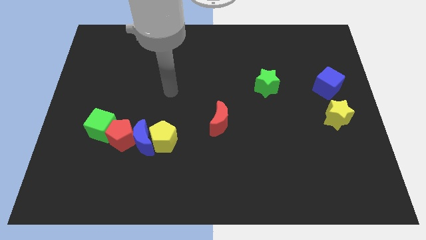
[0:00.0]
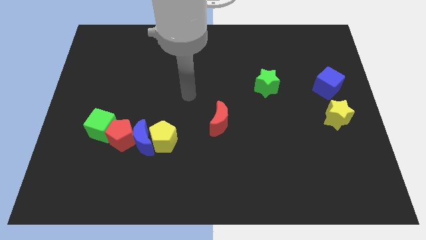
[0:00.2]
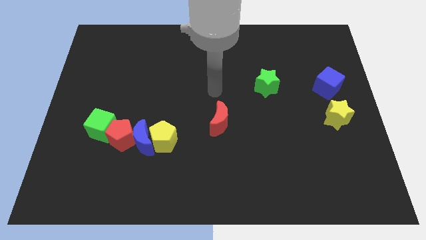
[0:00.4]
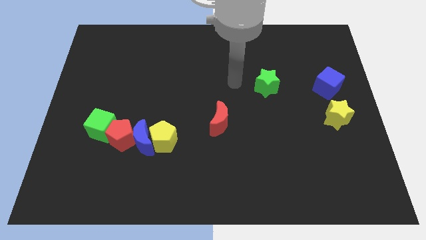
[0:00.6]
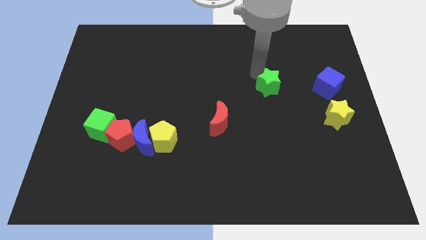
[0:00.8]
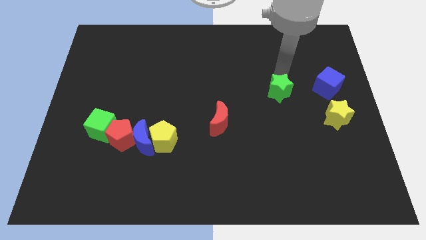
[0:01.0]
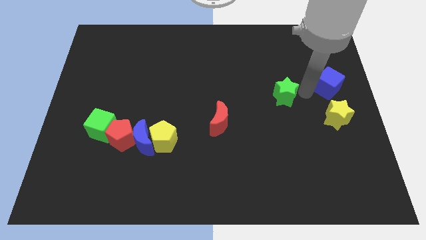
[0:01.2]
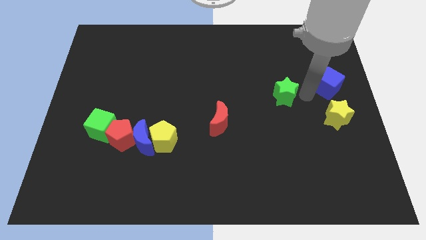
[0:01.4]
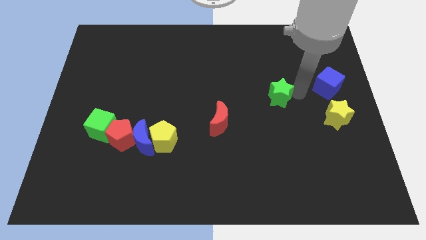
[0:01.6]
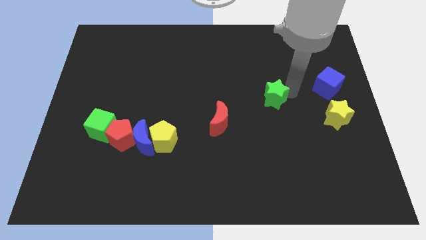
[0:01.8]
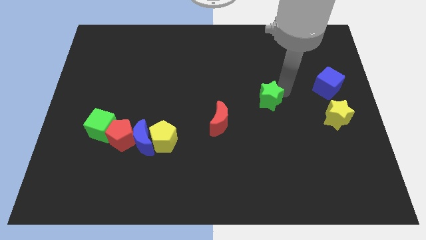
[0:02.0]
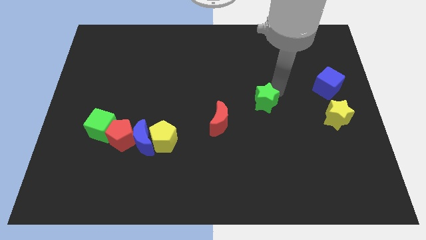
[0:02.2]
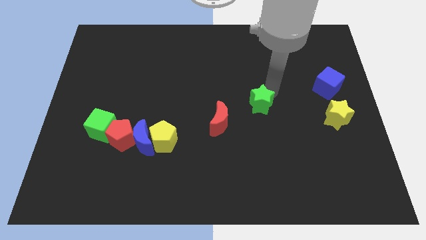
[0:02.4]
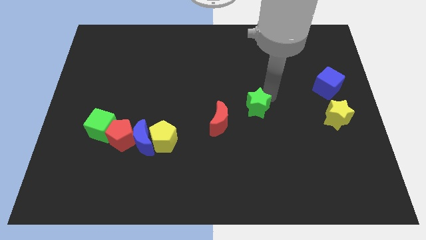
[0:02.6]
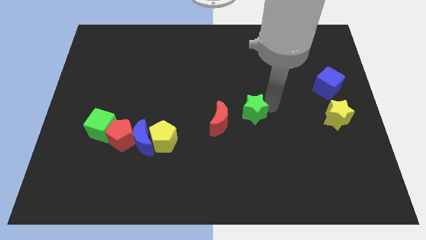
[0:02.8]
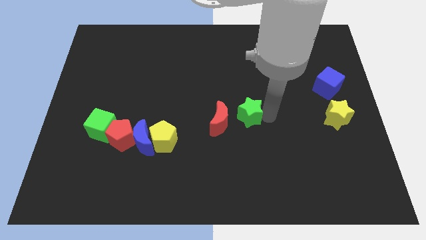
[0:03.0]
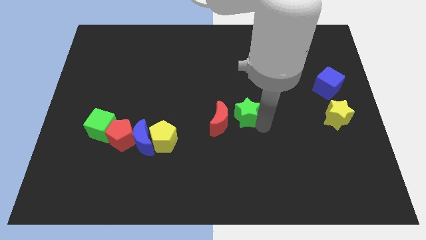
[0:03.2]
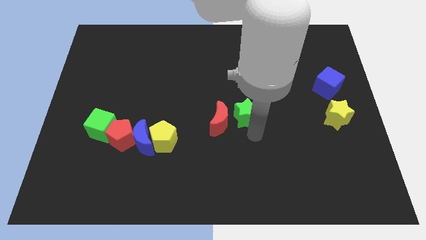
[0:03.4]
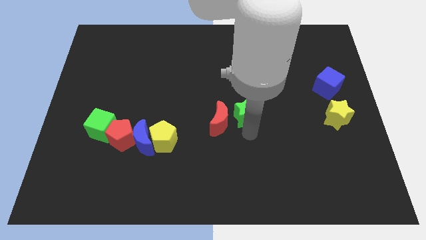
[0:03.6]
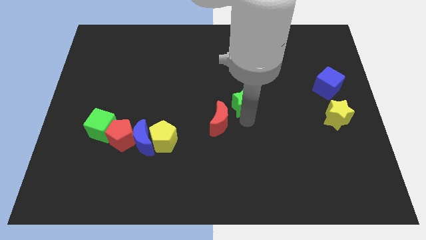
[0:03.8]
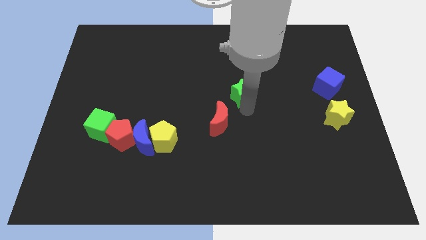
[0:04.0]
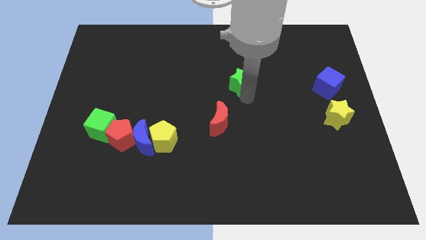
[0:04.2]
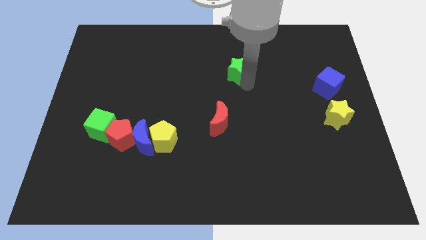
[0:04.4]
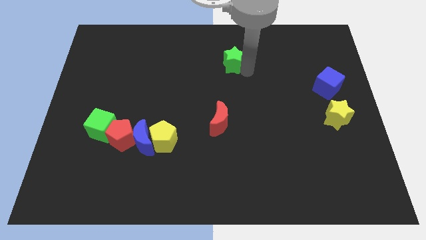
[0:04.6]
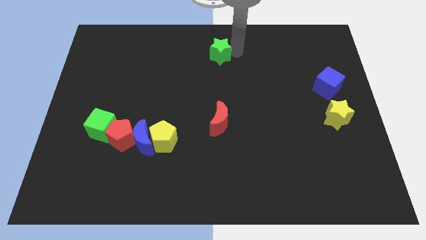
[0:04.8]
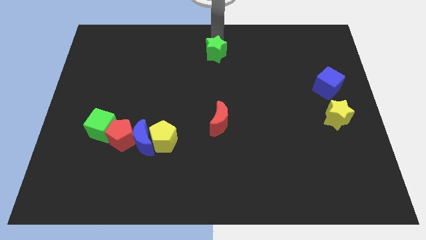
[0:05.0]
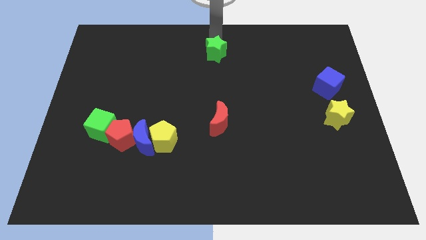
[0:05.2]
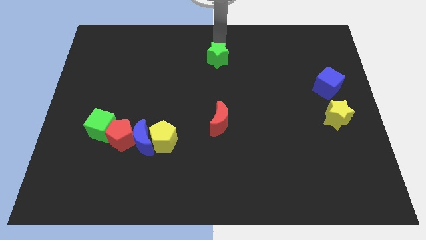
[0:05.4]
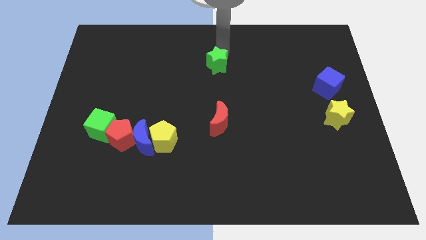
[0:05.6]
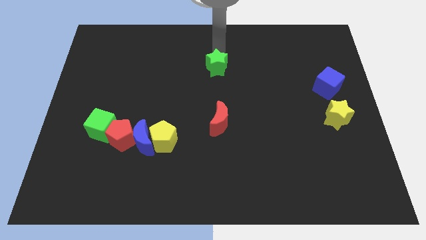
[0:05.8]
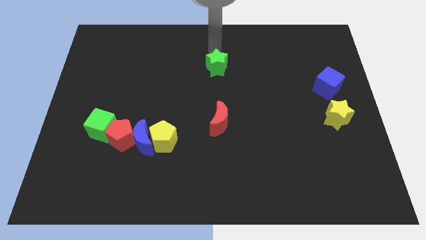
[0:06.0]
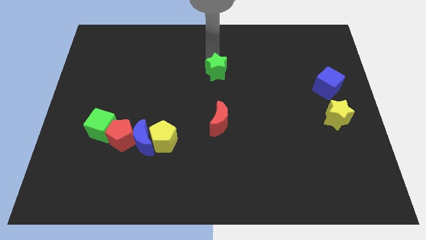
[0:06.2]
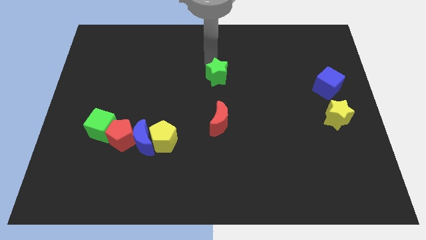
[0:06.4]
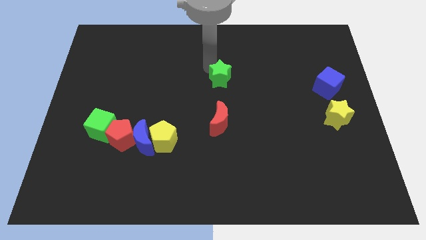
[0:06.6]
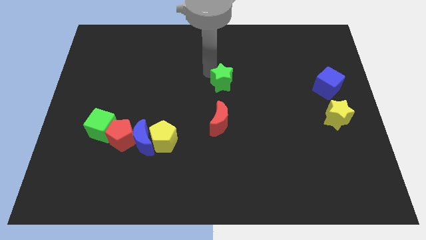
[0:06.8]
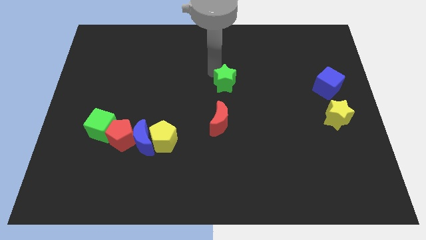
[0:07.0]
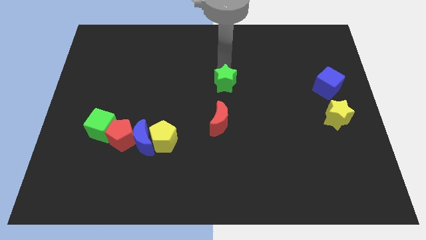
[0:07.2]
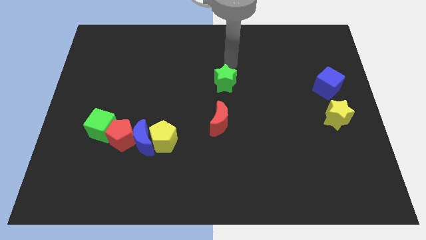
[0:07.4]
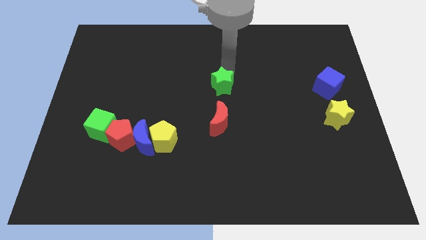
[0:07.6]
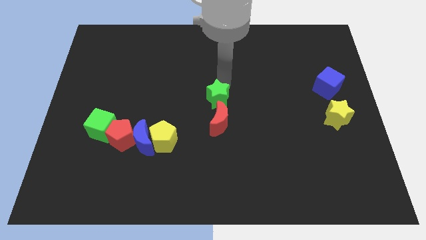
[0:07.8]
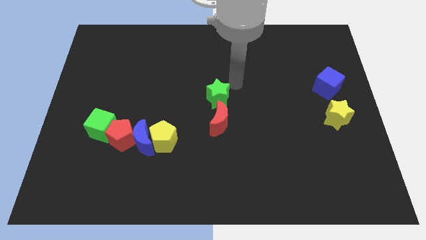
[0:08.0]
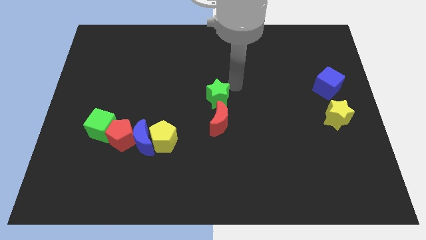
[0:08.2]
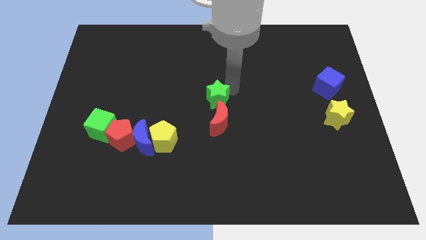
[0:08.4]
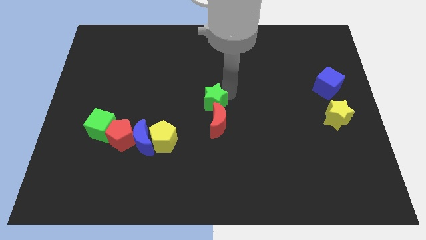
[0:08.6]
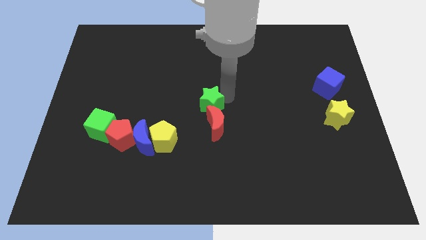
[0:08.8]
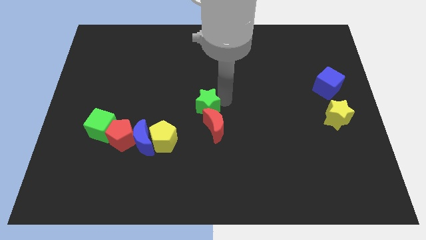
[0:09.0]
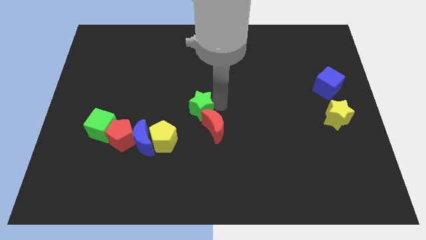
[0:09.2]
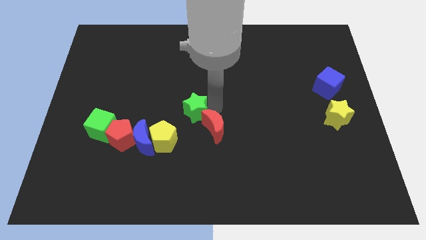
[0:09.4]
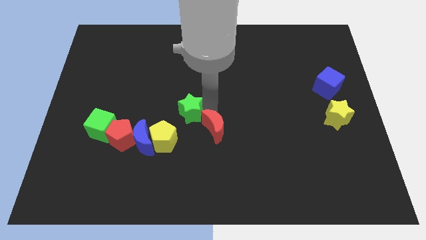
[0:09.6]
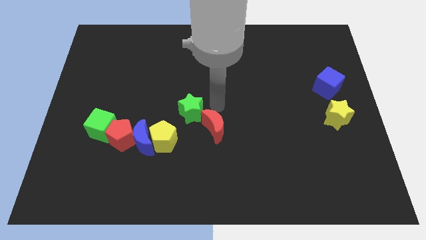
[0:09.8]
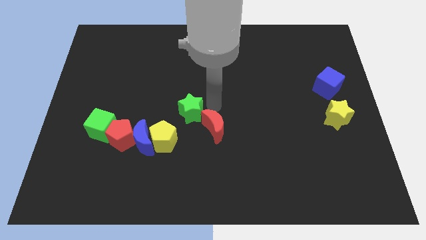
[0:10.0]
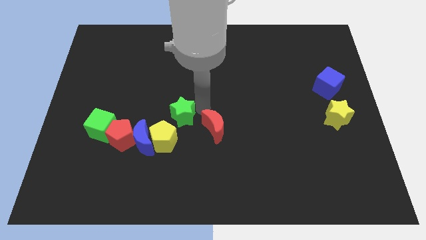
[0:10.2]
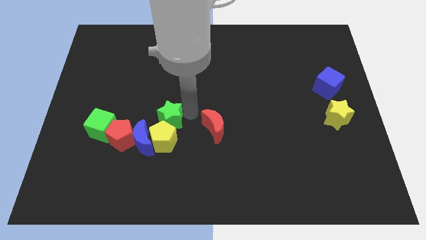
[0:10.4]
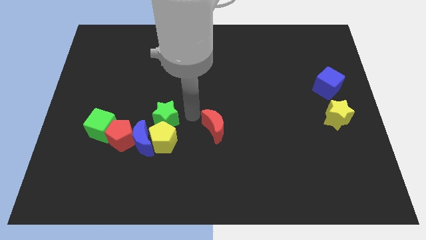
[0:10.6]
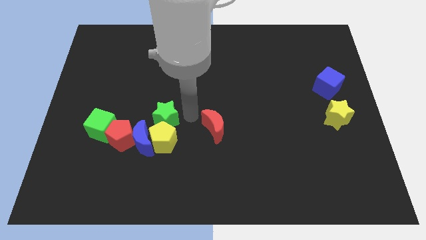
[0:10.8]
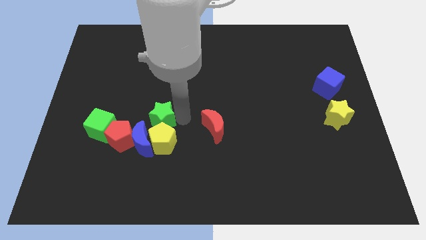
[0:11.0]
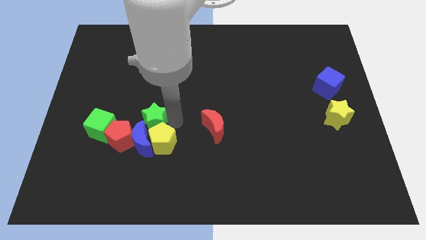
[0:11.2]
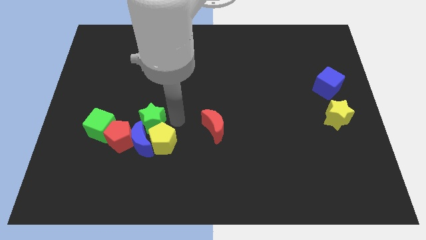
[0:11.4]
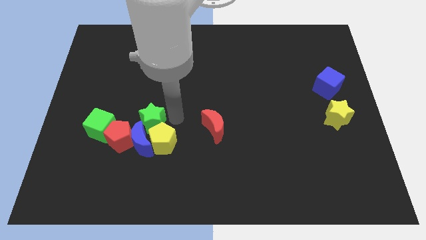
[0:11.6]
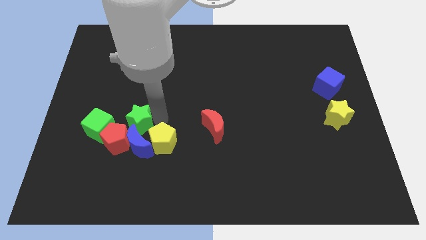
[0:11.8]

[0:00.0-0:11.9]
put the green star diagonally up and to the left of the blue moon

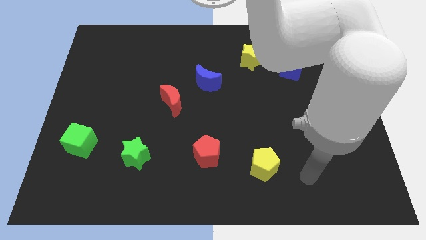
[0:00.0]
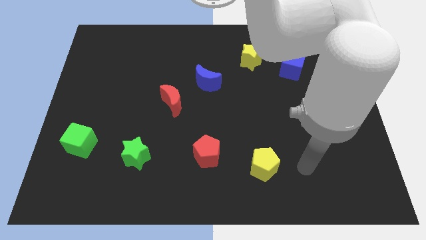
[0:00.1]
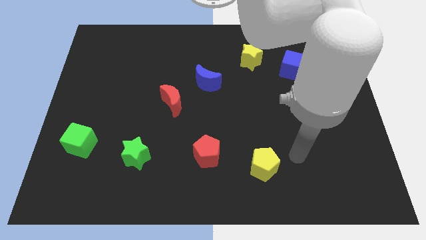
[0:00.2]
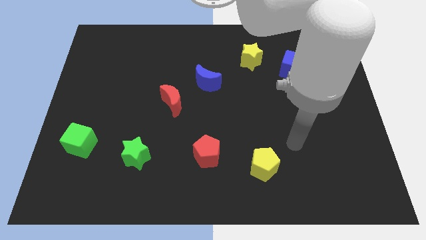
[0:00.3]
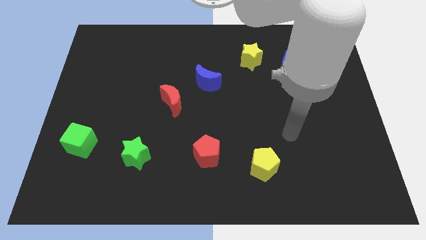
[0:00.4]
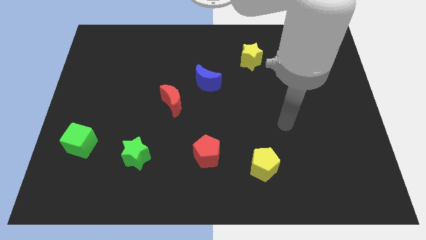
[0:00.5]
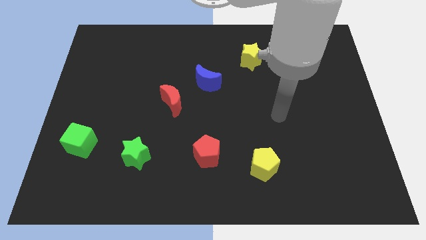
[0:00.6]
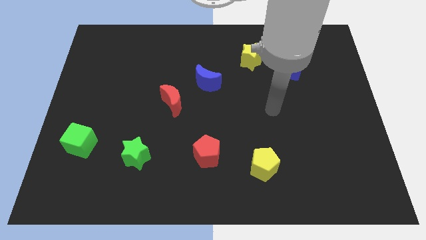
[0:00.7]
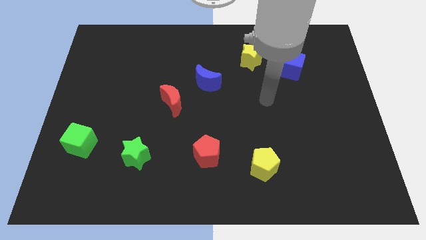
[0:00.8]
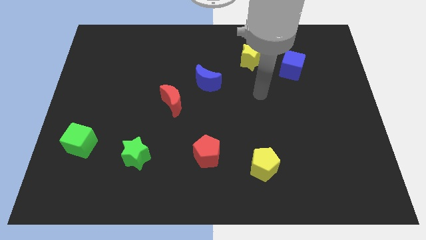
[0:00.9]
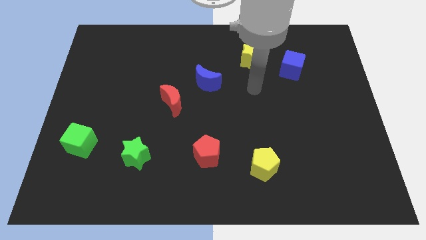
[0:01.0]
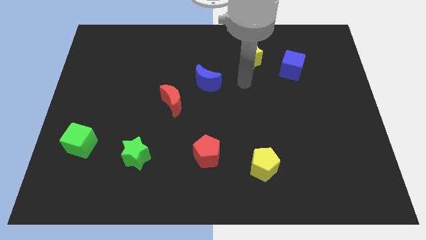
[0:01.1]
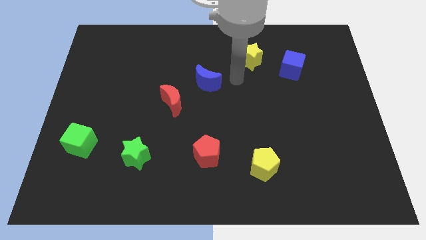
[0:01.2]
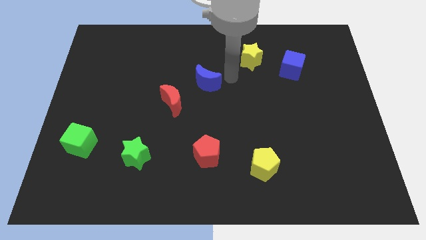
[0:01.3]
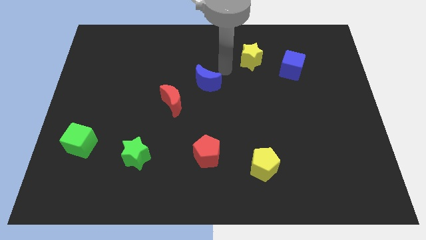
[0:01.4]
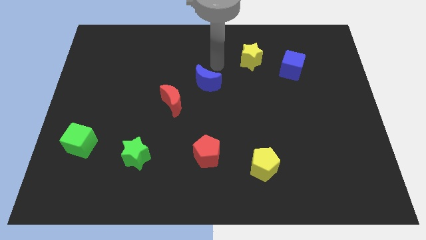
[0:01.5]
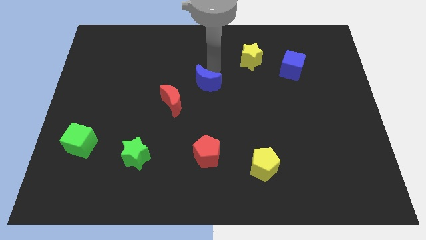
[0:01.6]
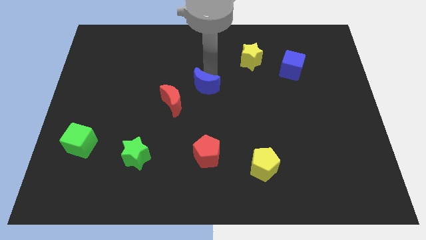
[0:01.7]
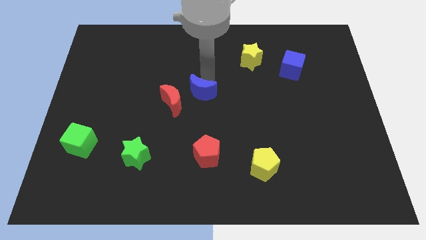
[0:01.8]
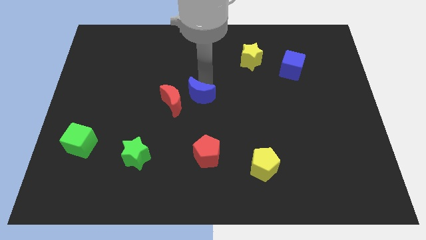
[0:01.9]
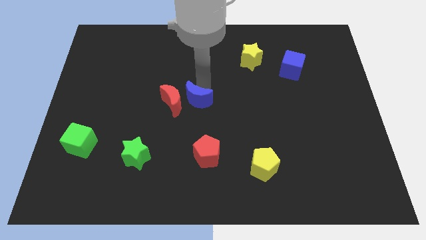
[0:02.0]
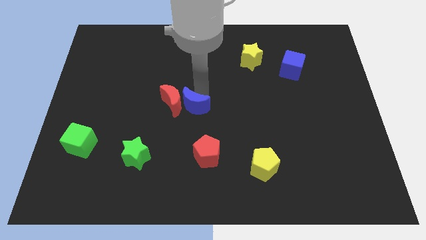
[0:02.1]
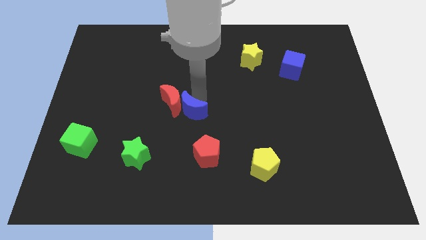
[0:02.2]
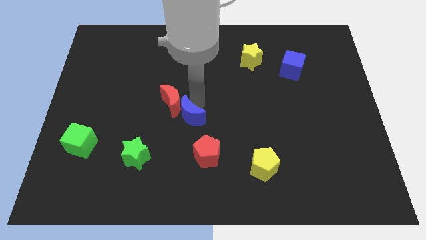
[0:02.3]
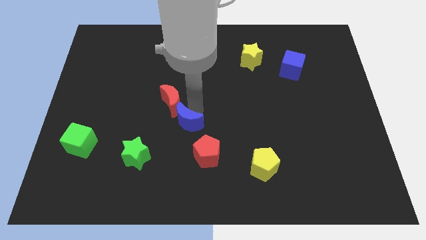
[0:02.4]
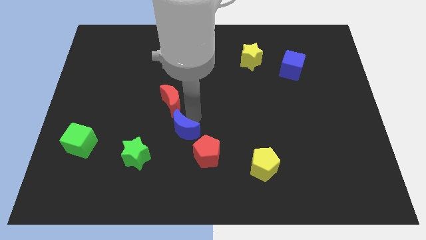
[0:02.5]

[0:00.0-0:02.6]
push the blue moon to the top right of the green star
